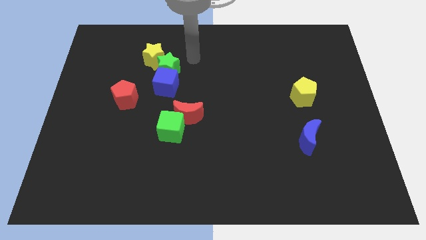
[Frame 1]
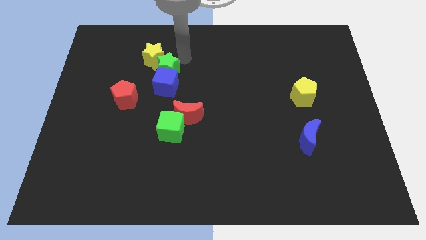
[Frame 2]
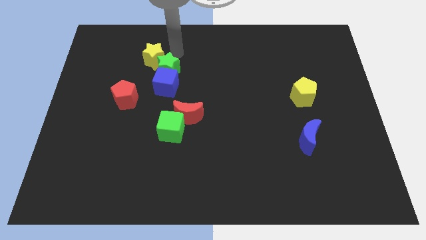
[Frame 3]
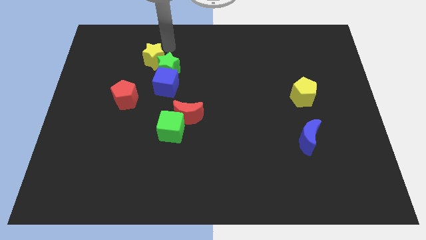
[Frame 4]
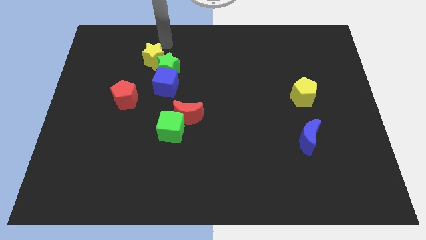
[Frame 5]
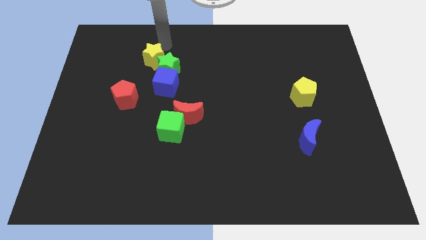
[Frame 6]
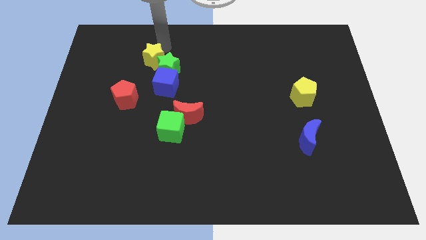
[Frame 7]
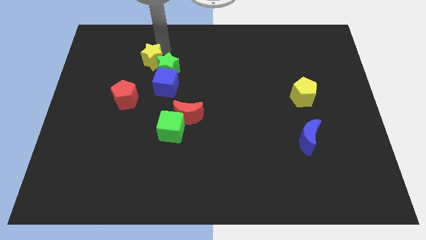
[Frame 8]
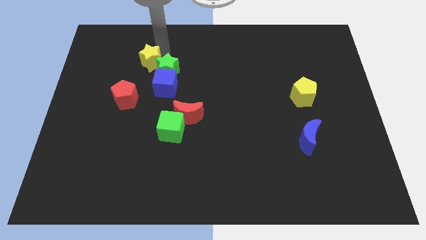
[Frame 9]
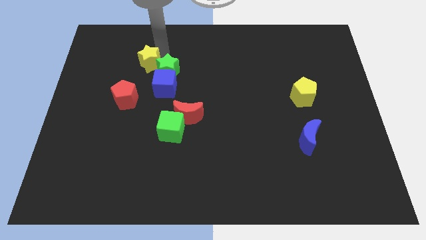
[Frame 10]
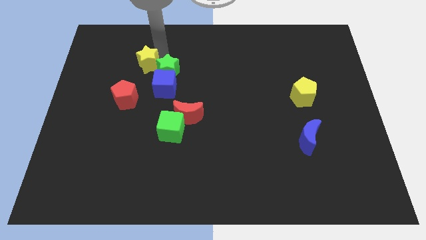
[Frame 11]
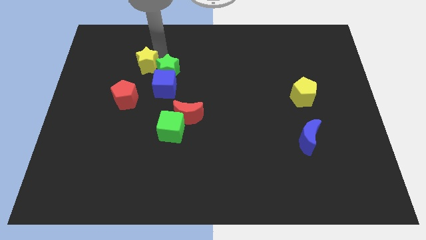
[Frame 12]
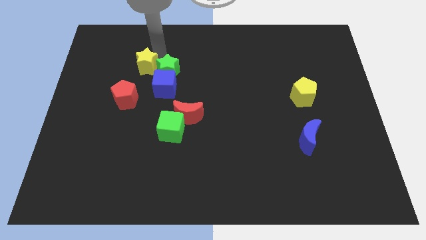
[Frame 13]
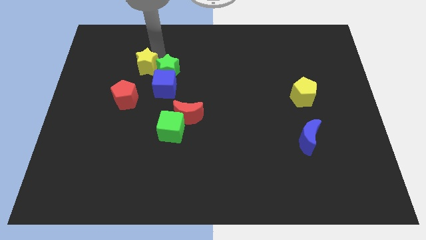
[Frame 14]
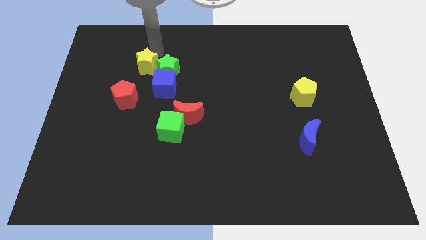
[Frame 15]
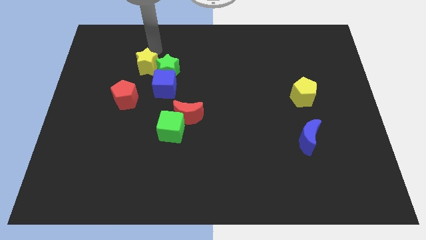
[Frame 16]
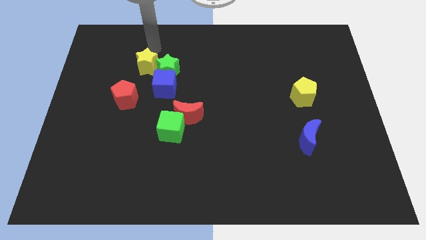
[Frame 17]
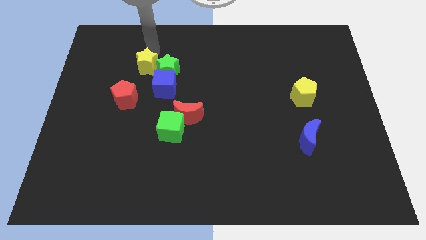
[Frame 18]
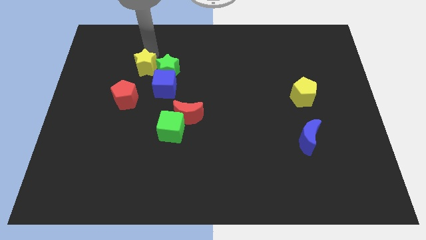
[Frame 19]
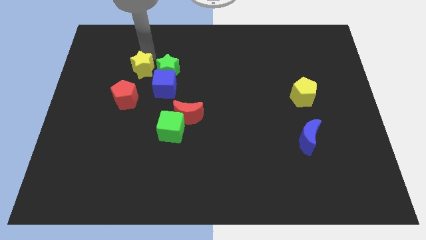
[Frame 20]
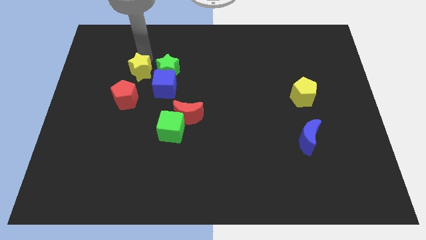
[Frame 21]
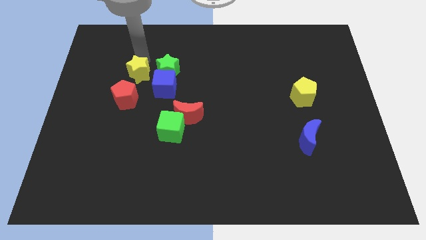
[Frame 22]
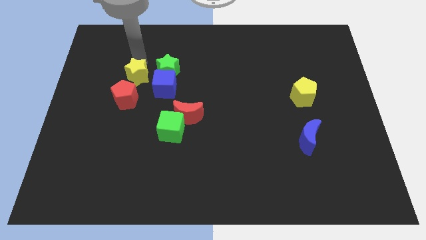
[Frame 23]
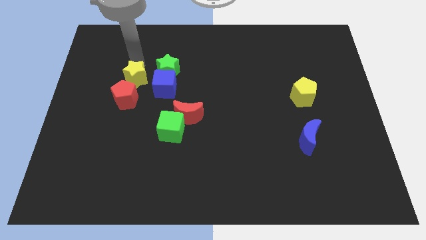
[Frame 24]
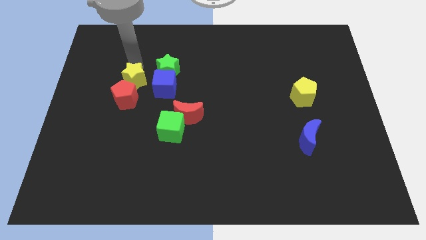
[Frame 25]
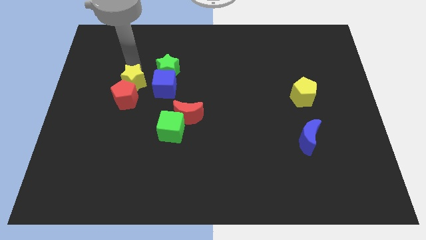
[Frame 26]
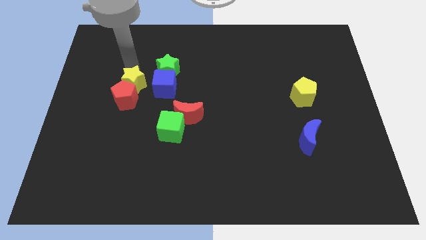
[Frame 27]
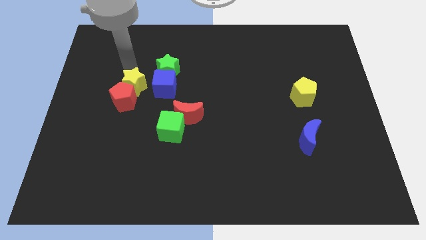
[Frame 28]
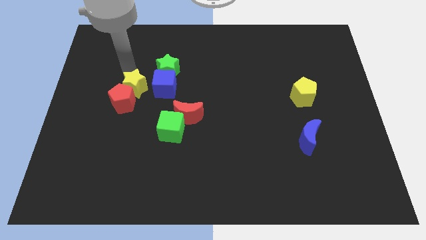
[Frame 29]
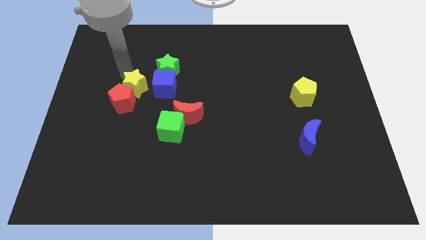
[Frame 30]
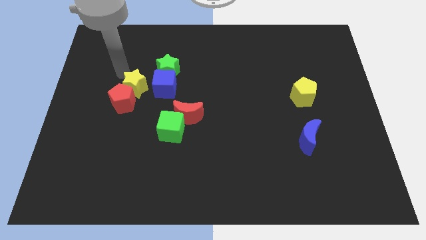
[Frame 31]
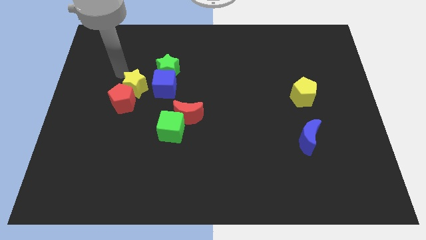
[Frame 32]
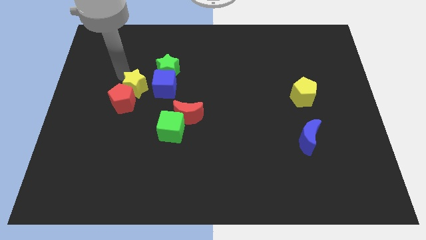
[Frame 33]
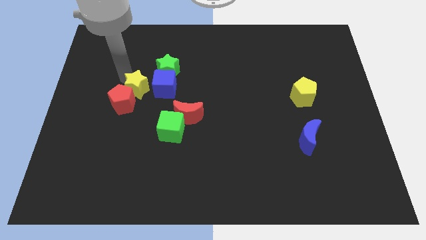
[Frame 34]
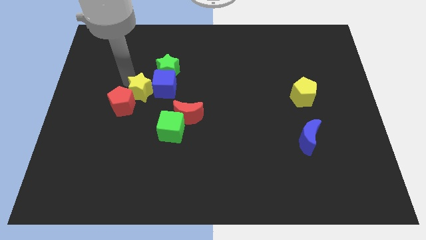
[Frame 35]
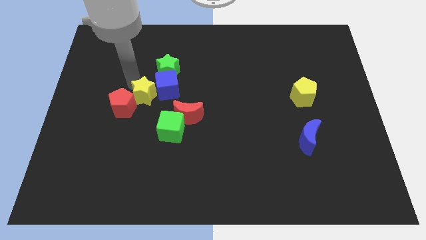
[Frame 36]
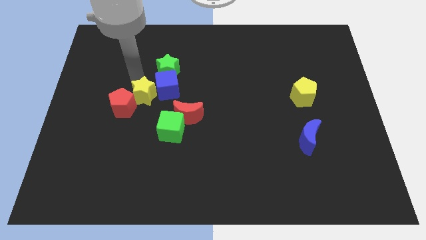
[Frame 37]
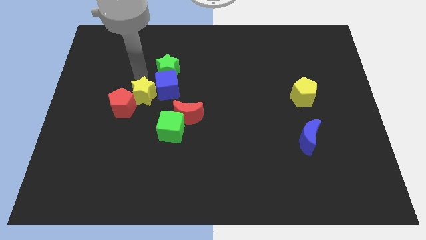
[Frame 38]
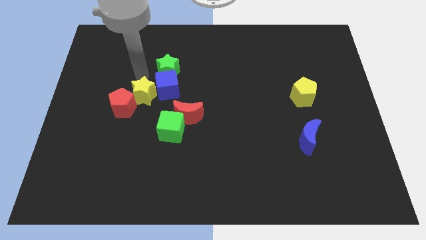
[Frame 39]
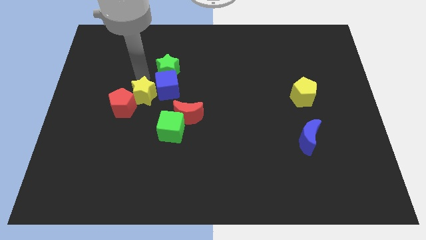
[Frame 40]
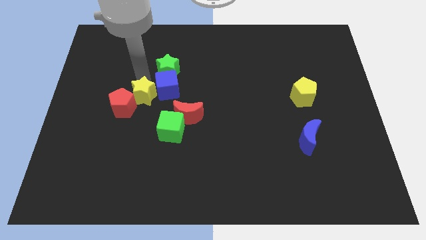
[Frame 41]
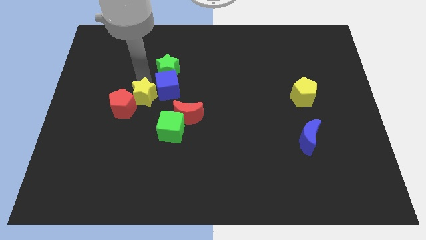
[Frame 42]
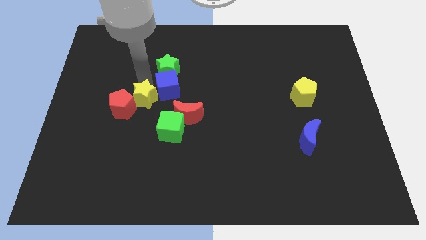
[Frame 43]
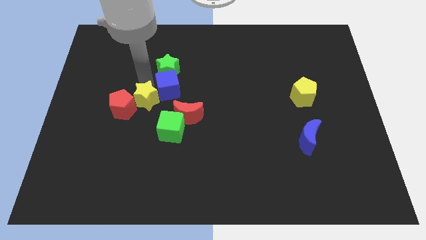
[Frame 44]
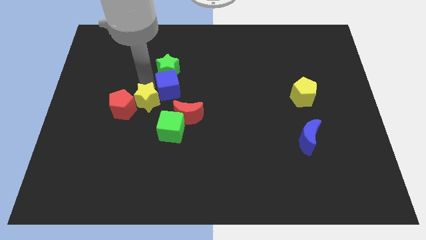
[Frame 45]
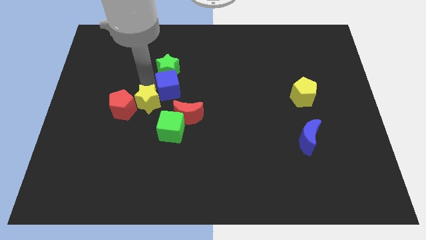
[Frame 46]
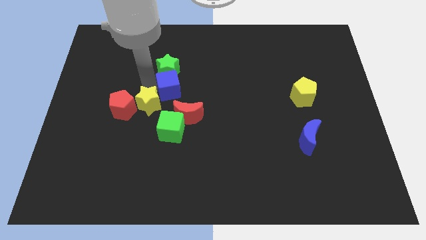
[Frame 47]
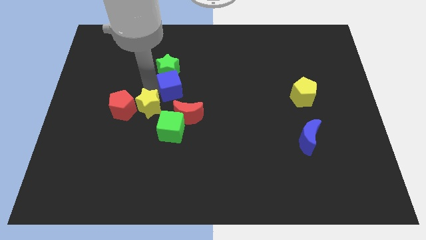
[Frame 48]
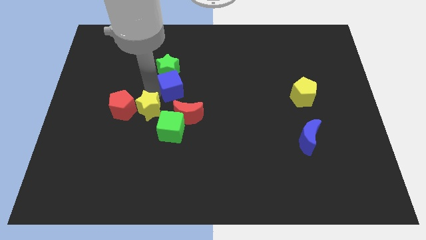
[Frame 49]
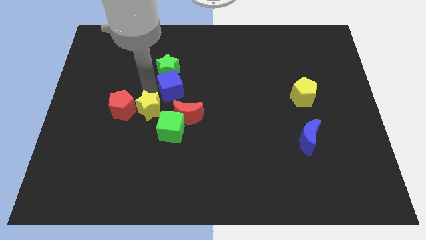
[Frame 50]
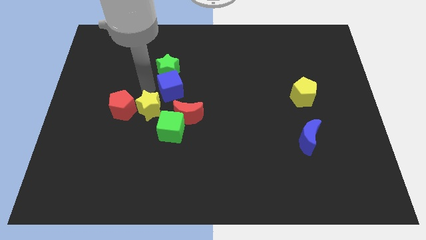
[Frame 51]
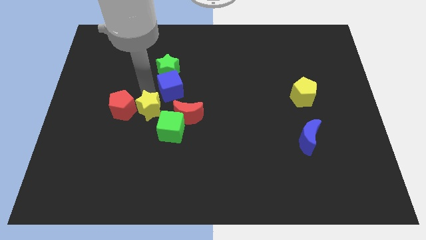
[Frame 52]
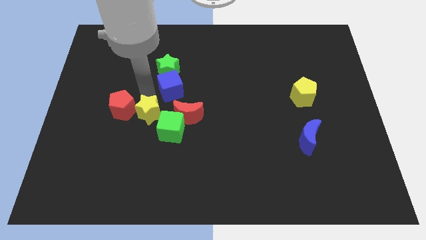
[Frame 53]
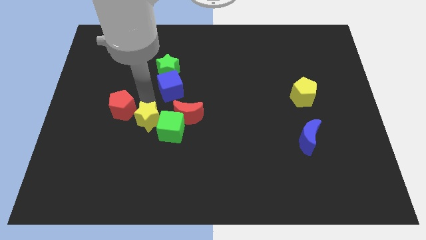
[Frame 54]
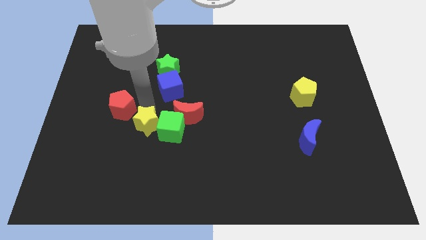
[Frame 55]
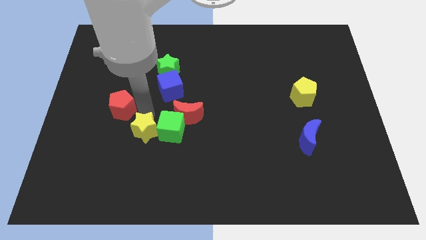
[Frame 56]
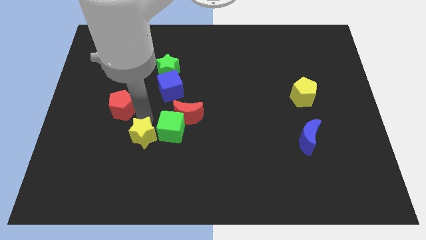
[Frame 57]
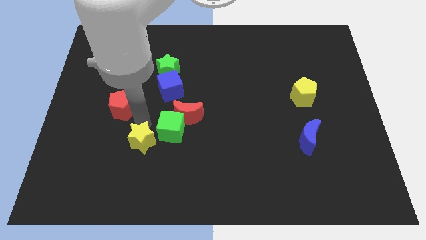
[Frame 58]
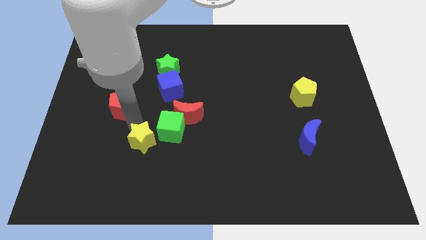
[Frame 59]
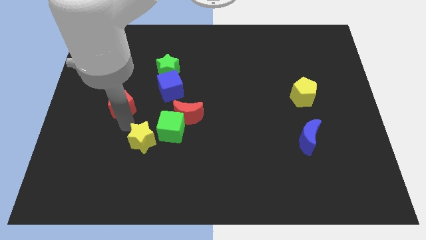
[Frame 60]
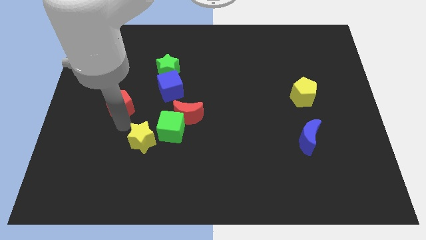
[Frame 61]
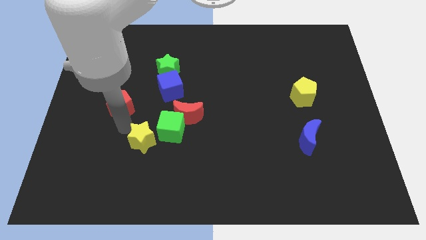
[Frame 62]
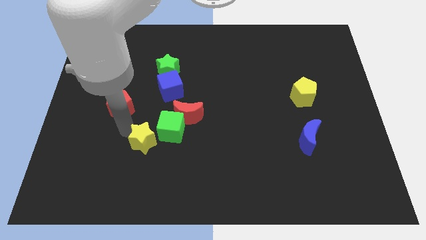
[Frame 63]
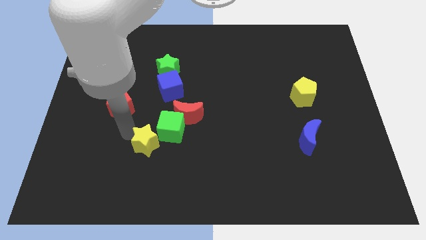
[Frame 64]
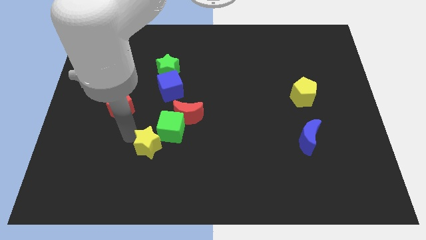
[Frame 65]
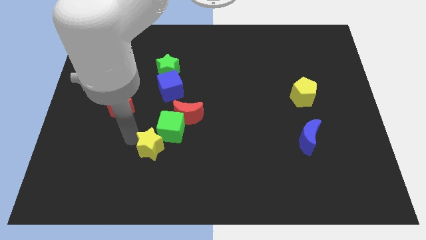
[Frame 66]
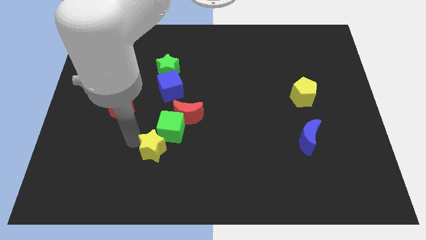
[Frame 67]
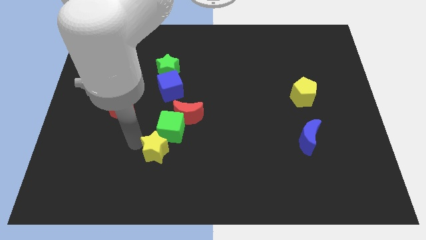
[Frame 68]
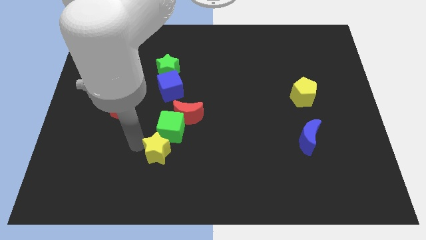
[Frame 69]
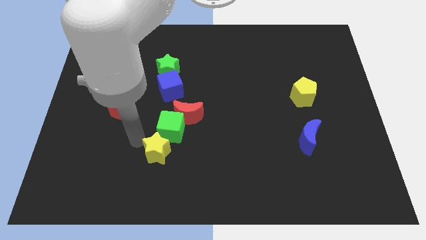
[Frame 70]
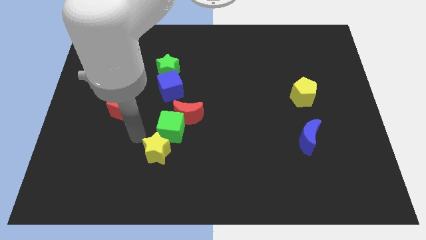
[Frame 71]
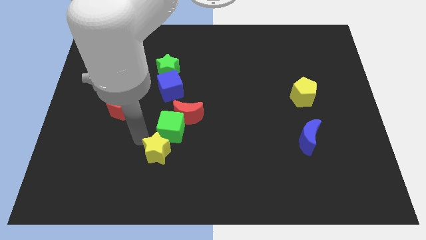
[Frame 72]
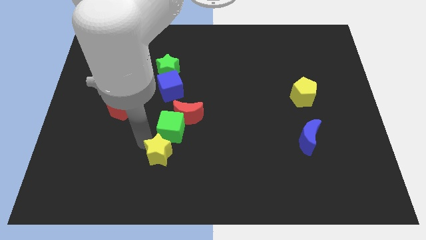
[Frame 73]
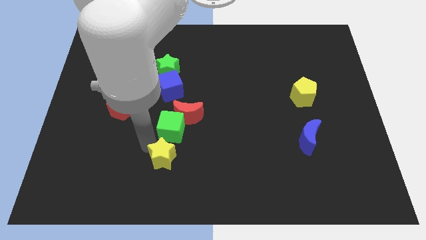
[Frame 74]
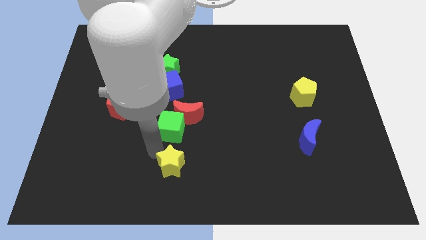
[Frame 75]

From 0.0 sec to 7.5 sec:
put the yellow star to the bottom side
